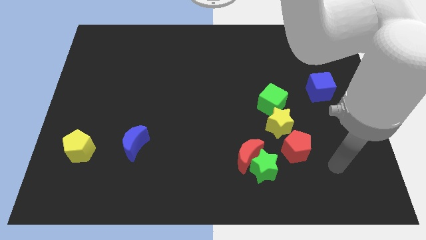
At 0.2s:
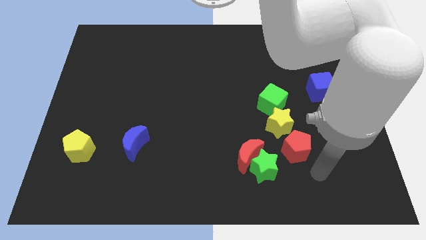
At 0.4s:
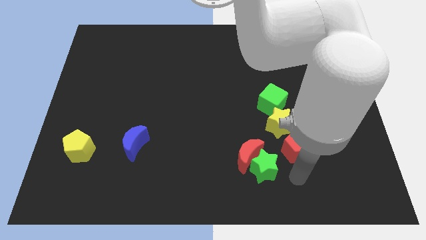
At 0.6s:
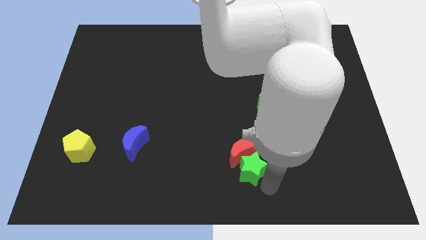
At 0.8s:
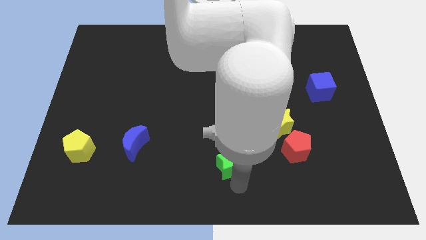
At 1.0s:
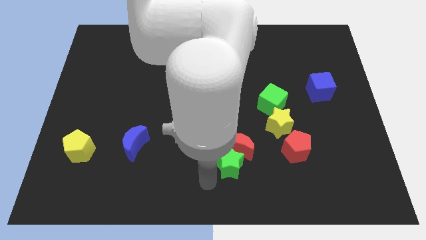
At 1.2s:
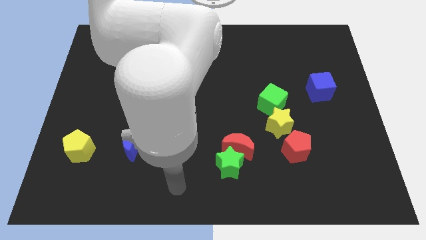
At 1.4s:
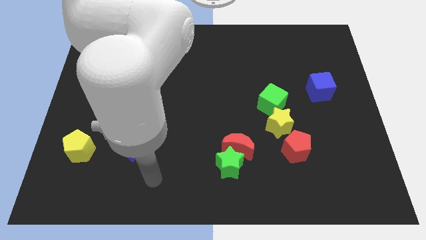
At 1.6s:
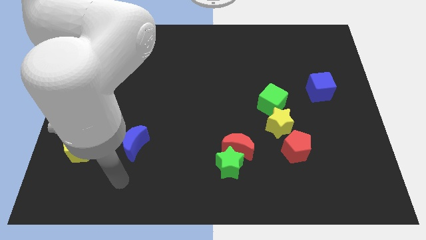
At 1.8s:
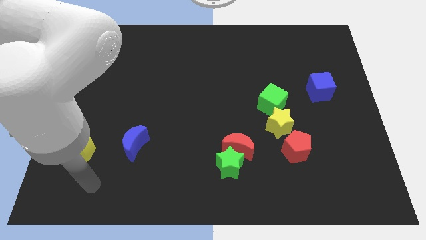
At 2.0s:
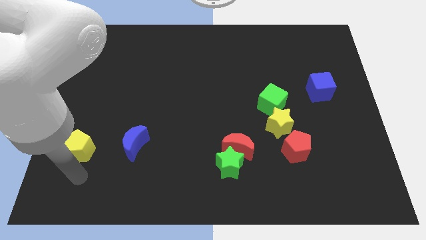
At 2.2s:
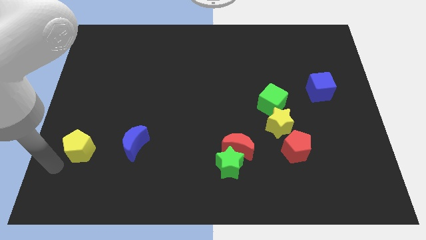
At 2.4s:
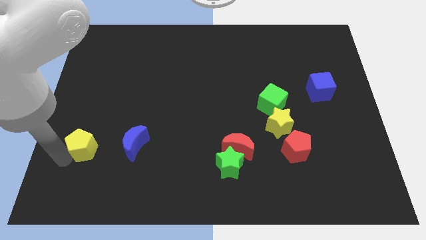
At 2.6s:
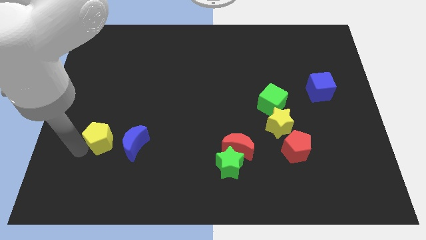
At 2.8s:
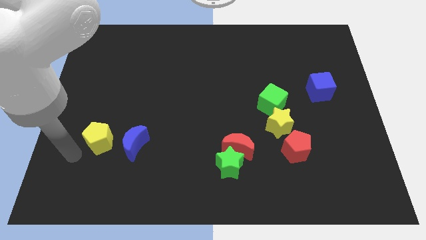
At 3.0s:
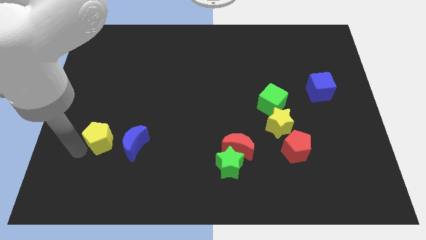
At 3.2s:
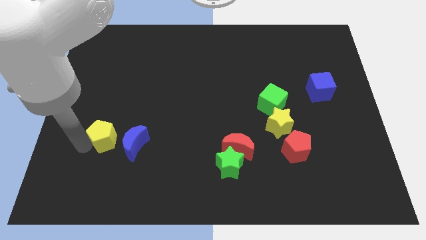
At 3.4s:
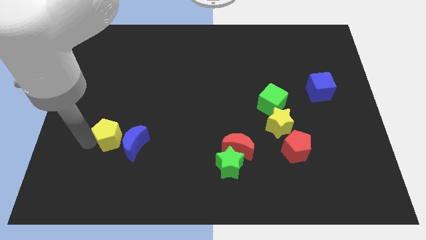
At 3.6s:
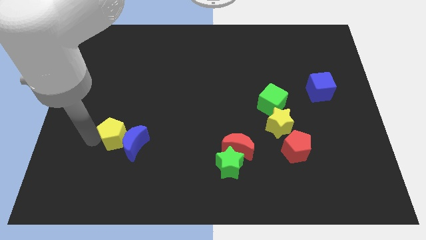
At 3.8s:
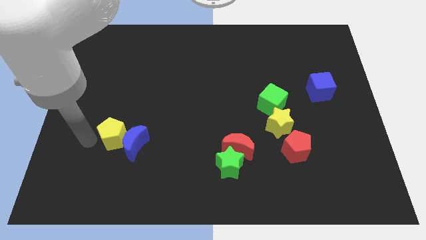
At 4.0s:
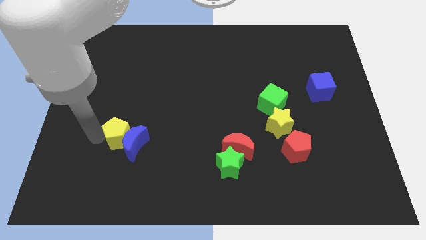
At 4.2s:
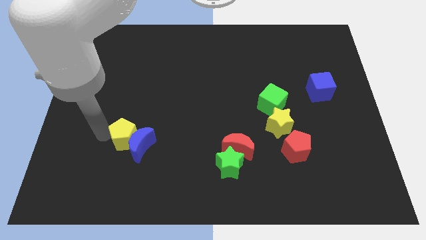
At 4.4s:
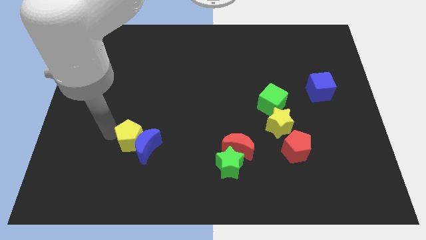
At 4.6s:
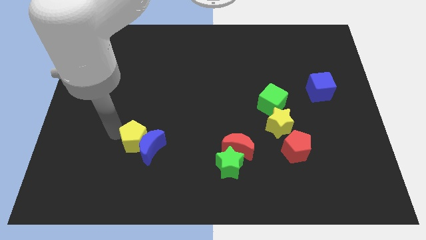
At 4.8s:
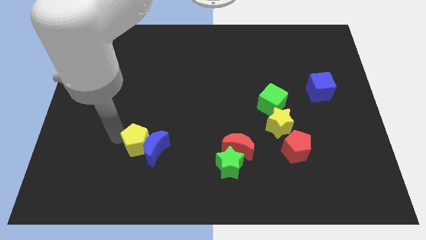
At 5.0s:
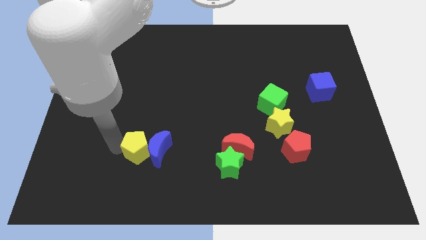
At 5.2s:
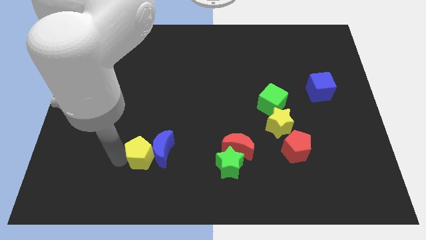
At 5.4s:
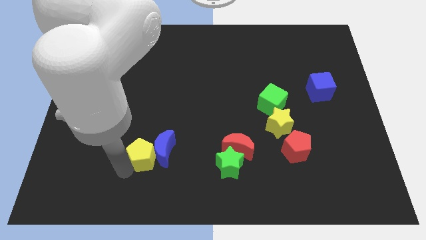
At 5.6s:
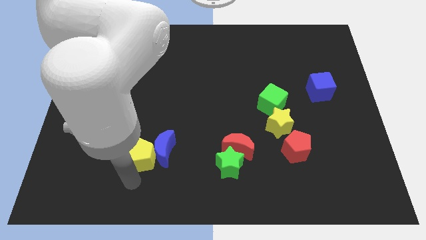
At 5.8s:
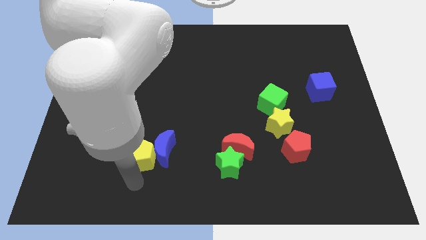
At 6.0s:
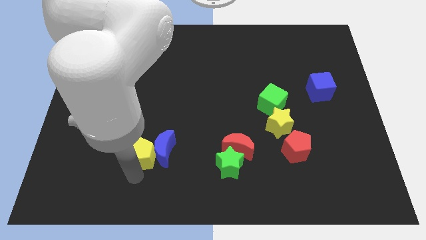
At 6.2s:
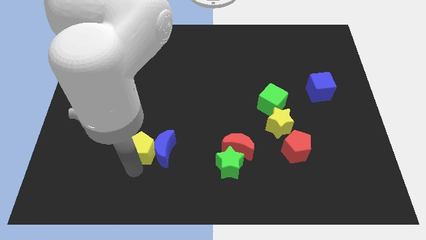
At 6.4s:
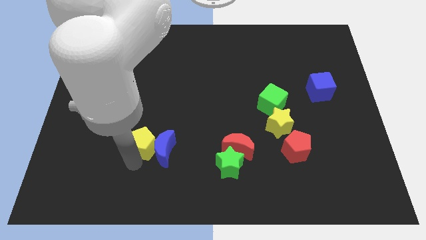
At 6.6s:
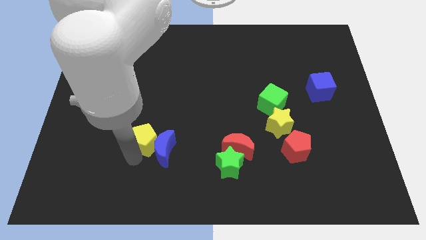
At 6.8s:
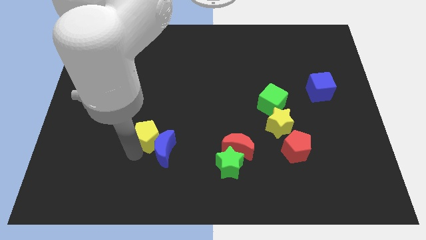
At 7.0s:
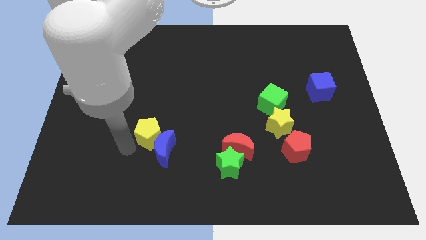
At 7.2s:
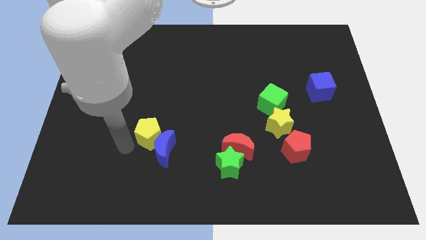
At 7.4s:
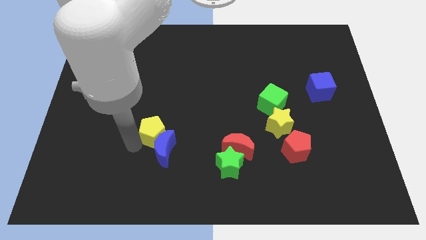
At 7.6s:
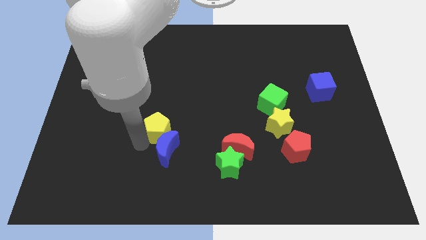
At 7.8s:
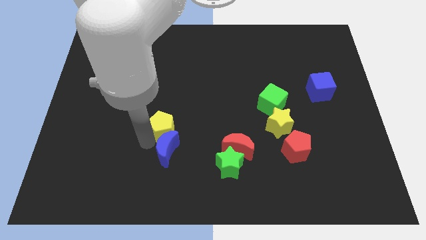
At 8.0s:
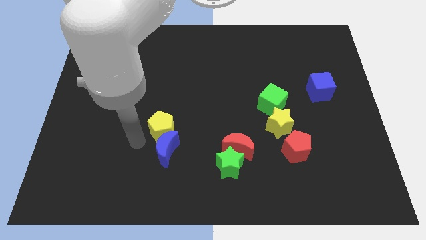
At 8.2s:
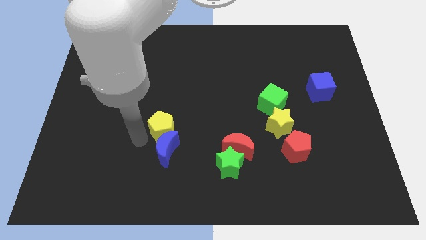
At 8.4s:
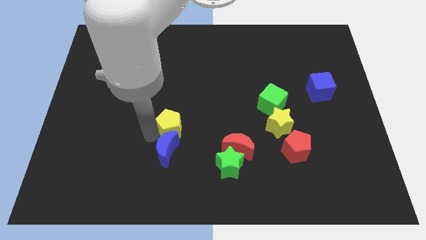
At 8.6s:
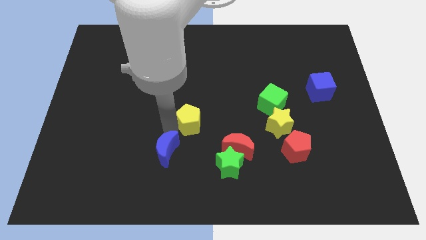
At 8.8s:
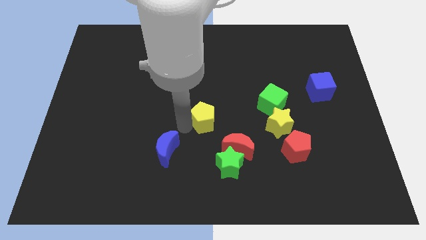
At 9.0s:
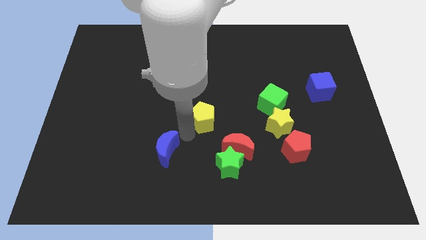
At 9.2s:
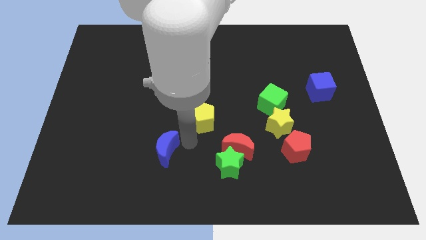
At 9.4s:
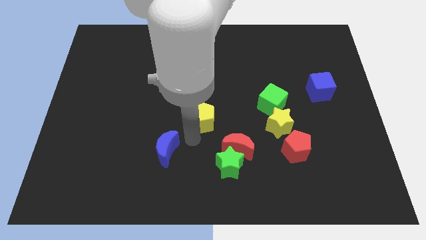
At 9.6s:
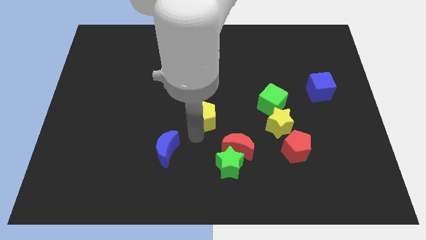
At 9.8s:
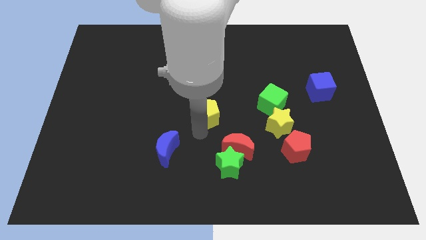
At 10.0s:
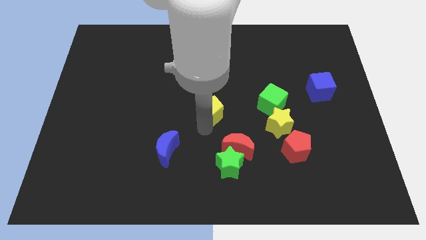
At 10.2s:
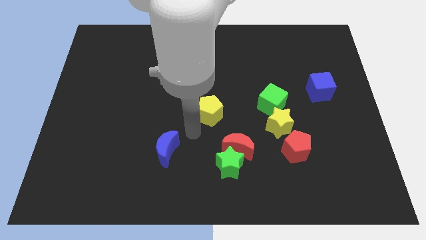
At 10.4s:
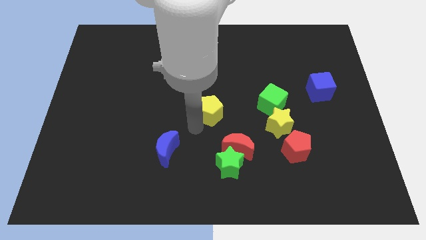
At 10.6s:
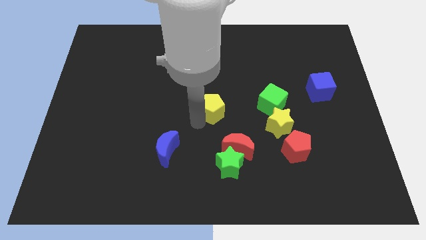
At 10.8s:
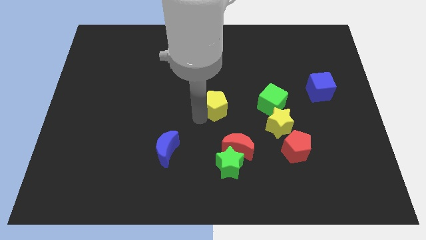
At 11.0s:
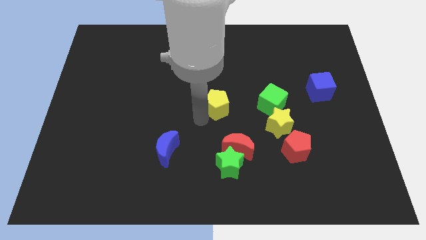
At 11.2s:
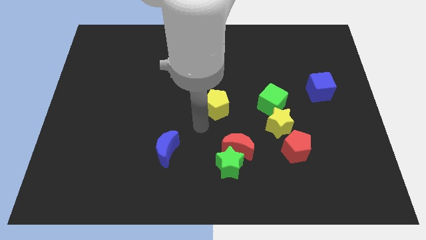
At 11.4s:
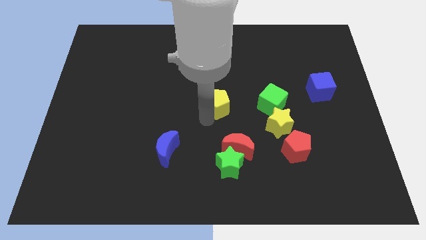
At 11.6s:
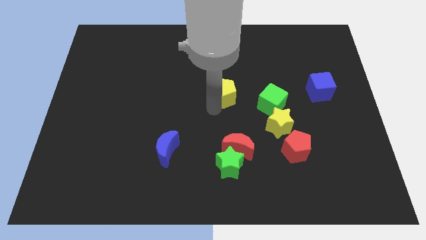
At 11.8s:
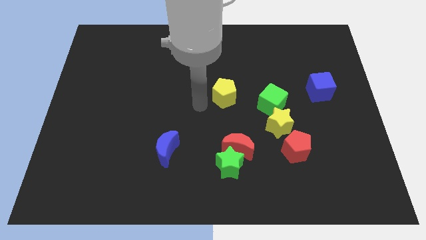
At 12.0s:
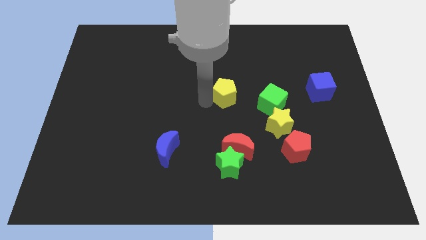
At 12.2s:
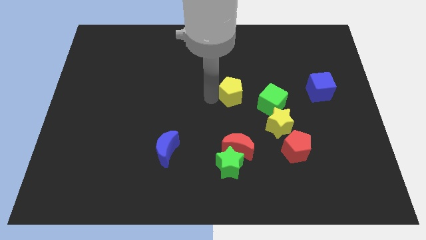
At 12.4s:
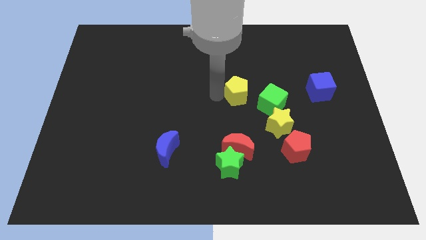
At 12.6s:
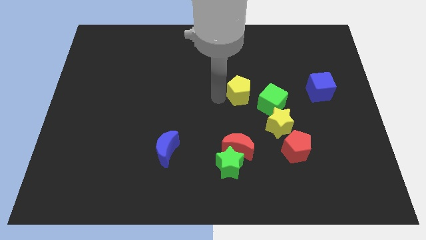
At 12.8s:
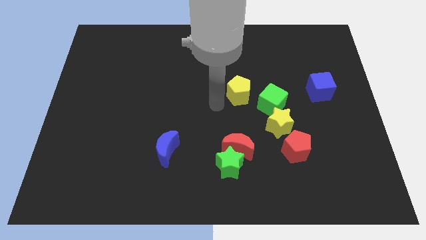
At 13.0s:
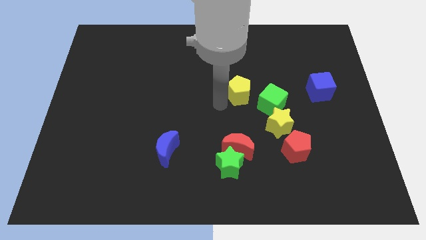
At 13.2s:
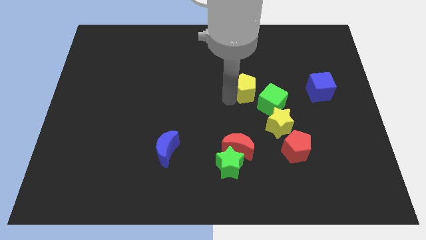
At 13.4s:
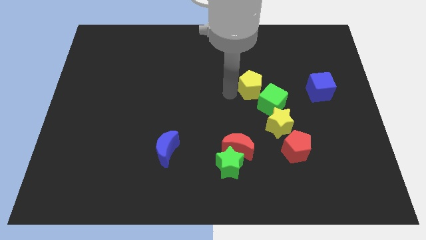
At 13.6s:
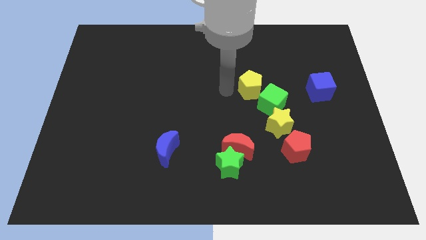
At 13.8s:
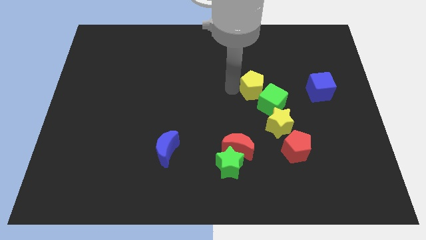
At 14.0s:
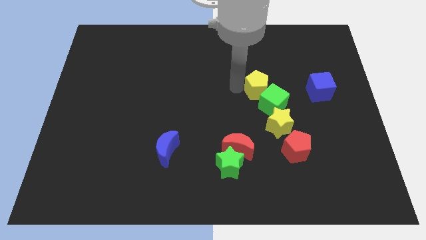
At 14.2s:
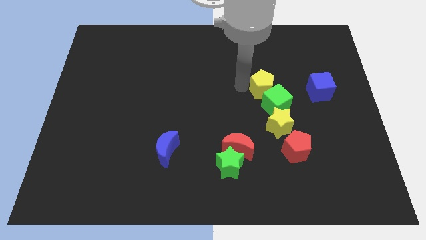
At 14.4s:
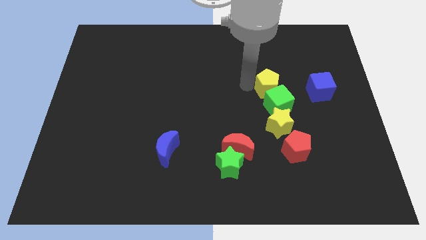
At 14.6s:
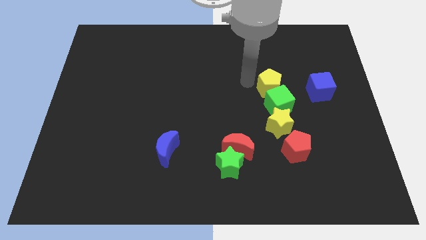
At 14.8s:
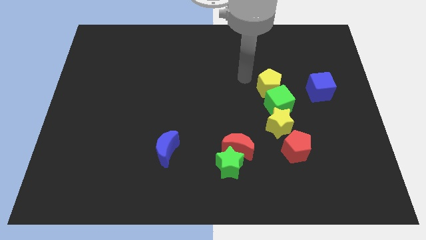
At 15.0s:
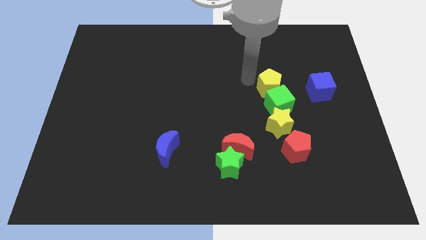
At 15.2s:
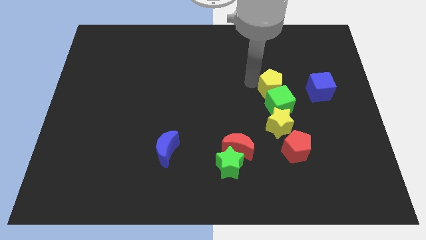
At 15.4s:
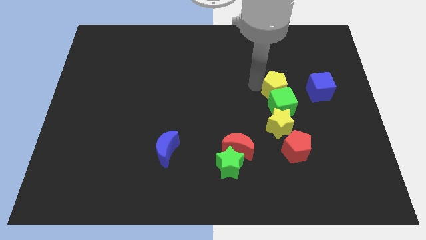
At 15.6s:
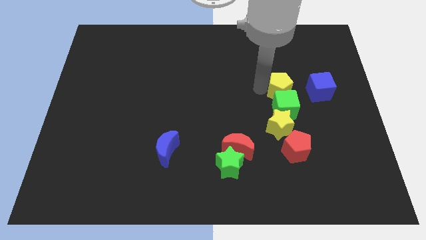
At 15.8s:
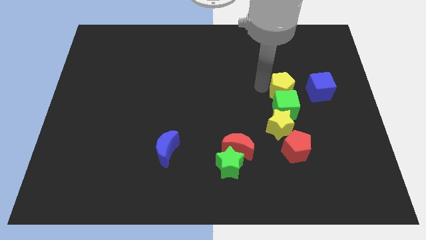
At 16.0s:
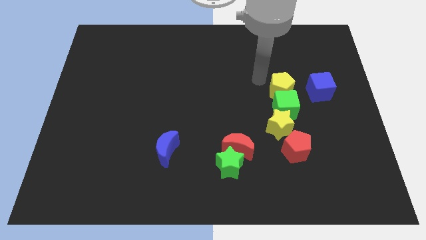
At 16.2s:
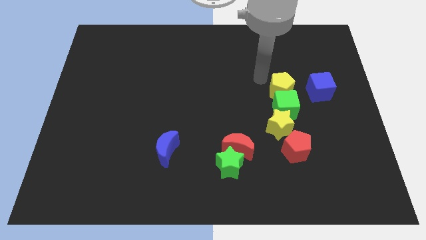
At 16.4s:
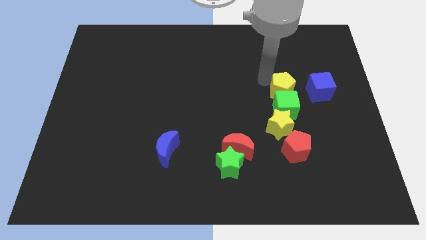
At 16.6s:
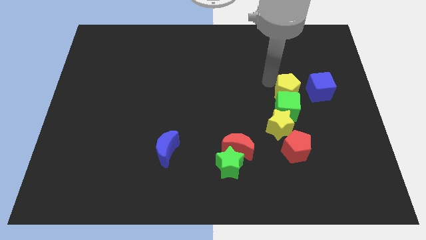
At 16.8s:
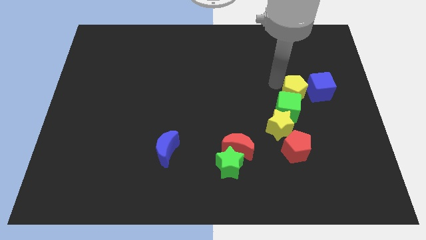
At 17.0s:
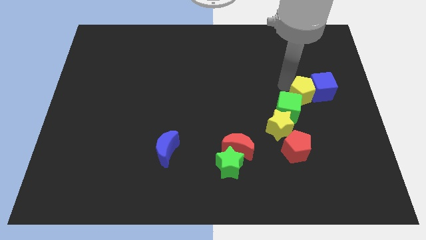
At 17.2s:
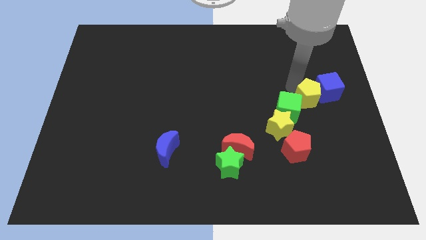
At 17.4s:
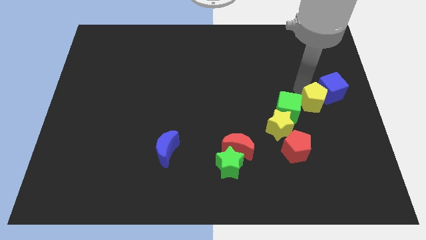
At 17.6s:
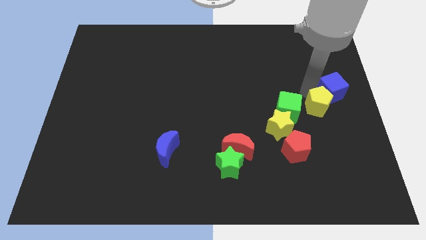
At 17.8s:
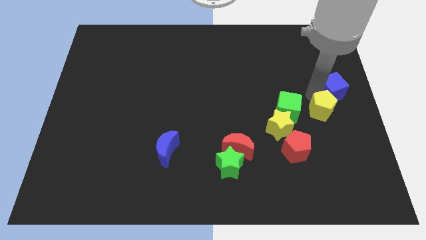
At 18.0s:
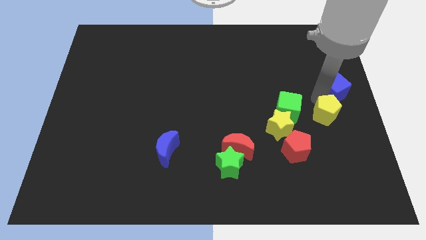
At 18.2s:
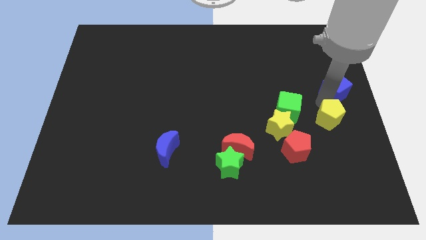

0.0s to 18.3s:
move the yellow pentagon to the bottom right of the green cube
